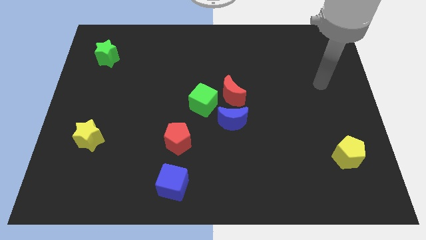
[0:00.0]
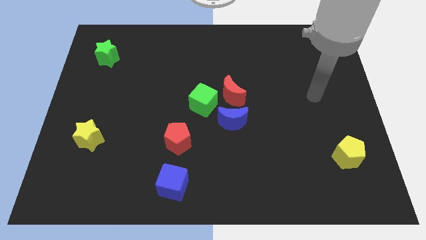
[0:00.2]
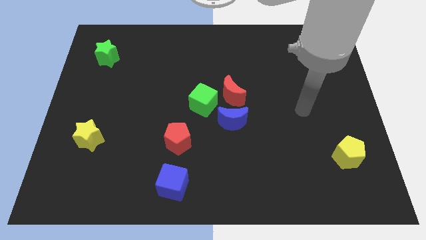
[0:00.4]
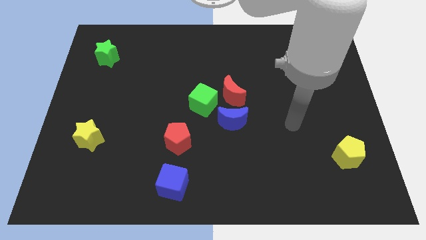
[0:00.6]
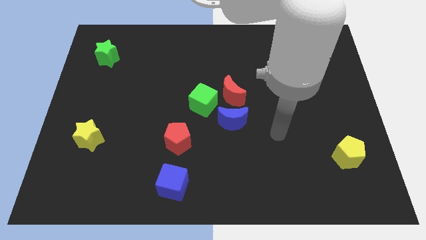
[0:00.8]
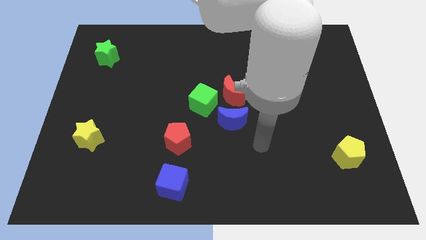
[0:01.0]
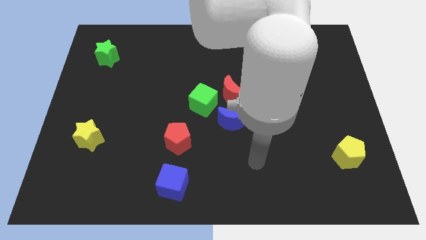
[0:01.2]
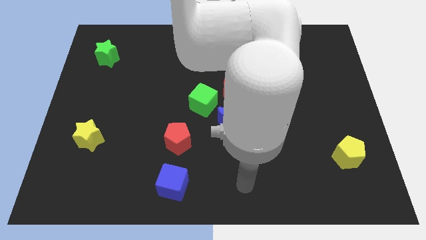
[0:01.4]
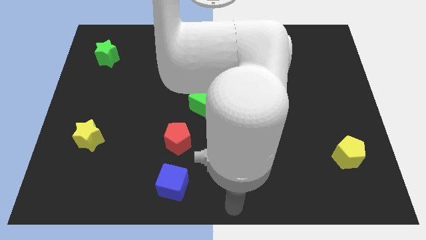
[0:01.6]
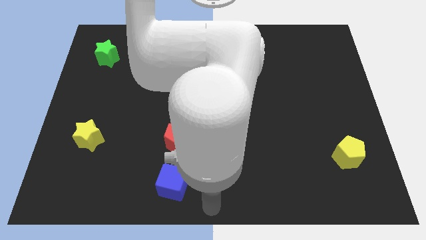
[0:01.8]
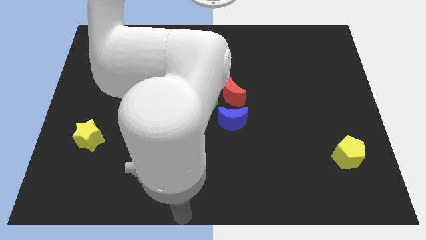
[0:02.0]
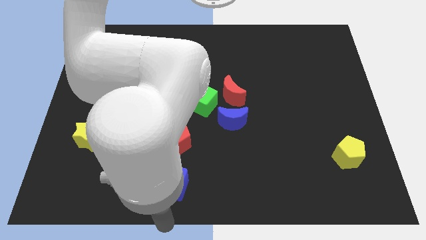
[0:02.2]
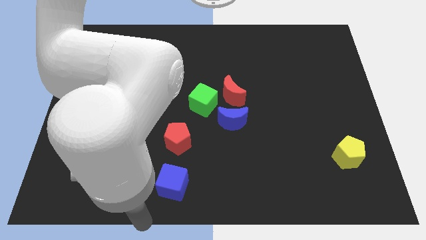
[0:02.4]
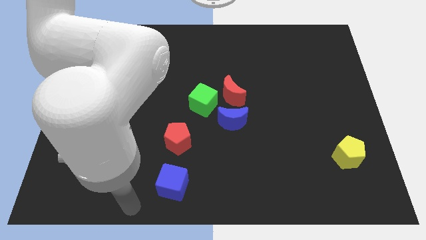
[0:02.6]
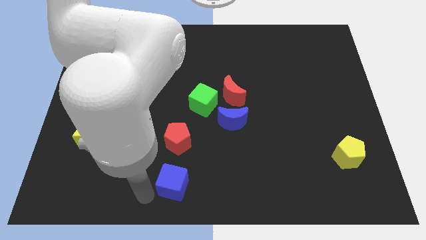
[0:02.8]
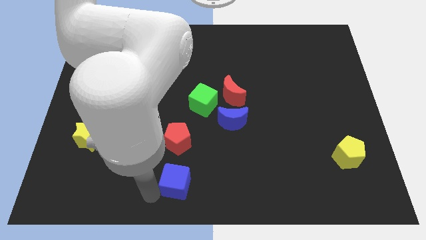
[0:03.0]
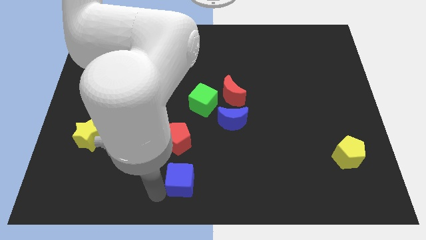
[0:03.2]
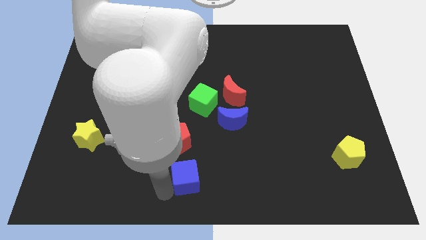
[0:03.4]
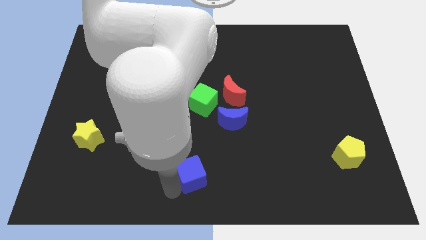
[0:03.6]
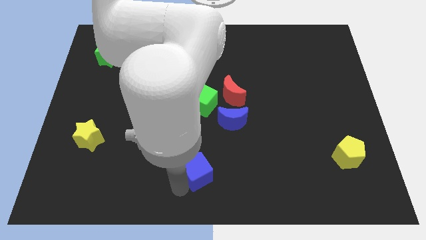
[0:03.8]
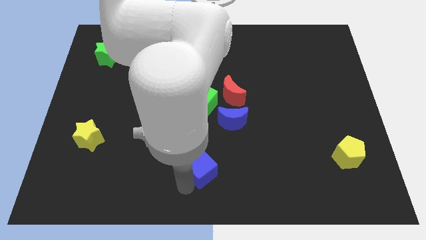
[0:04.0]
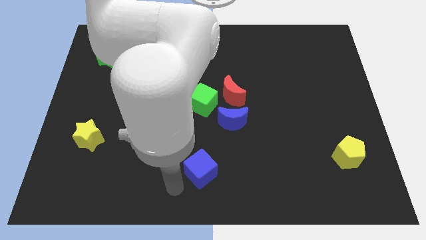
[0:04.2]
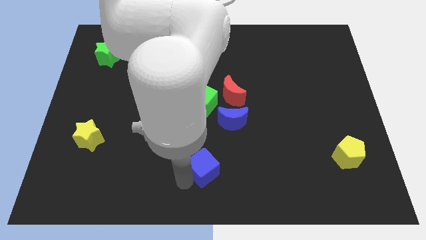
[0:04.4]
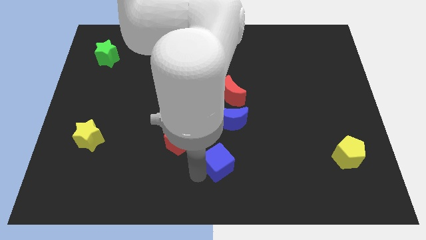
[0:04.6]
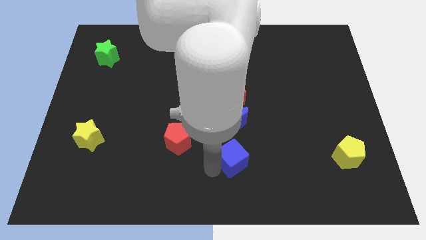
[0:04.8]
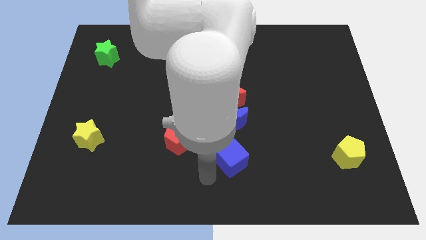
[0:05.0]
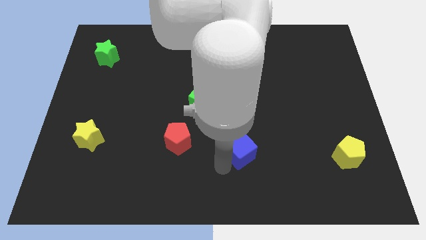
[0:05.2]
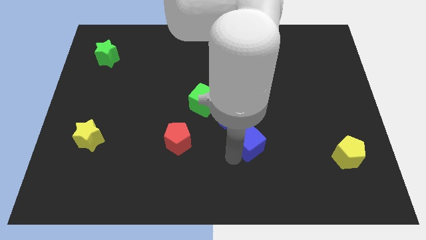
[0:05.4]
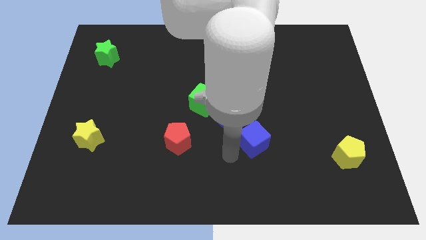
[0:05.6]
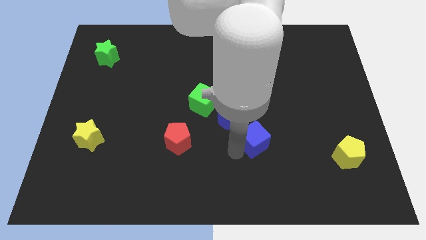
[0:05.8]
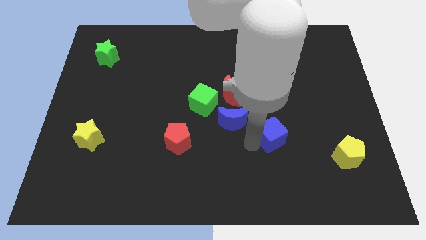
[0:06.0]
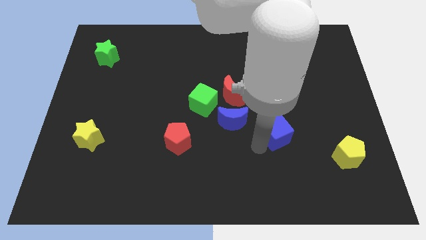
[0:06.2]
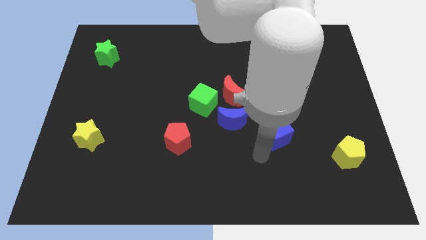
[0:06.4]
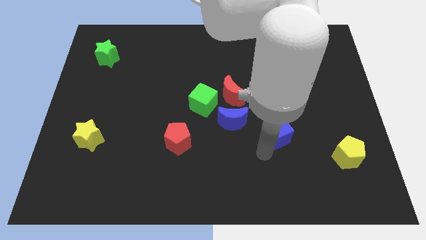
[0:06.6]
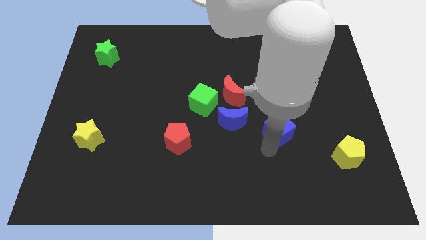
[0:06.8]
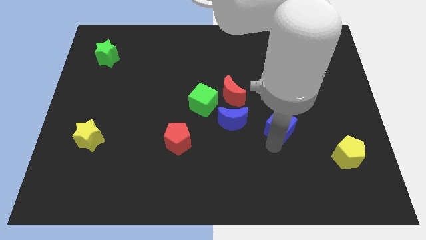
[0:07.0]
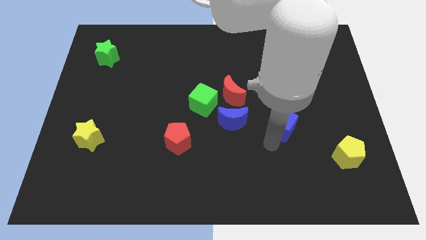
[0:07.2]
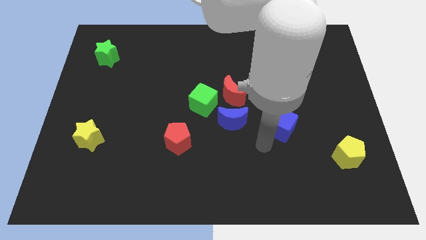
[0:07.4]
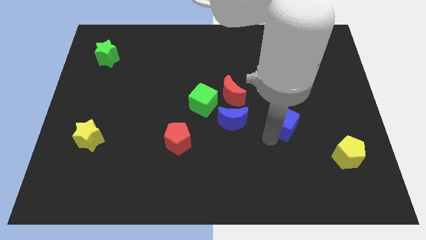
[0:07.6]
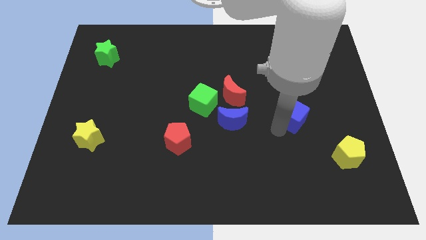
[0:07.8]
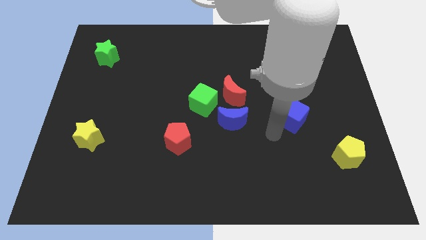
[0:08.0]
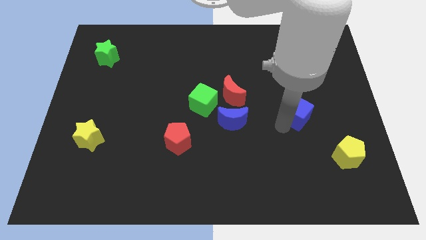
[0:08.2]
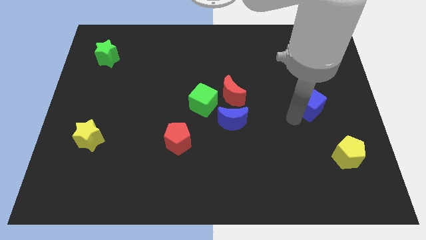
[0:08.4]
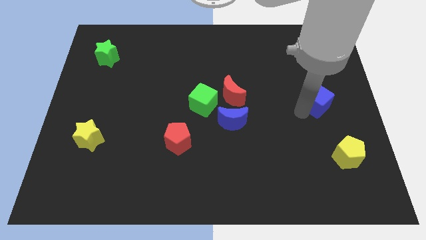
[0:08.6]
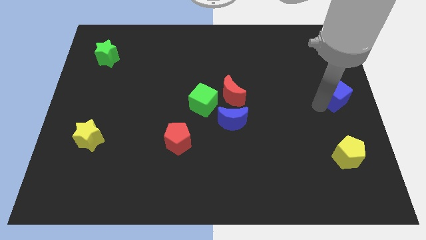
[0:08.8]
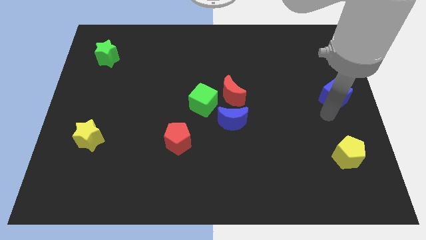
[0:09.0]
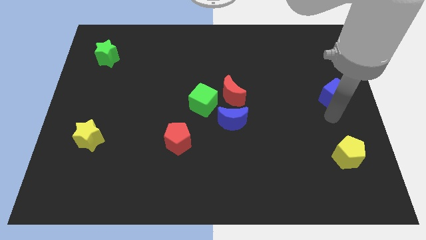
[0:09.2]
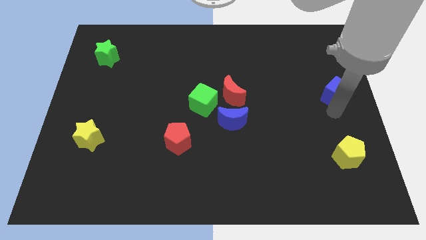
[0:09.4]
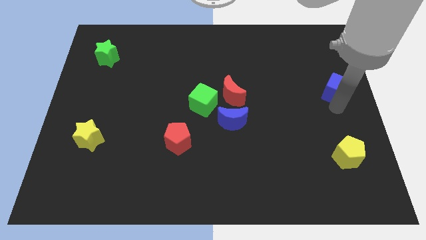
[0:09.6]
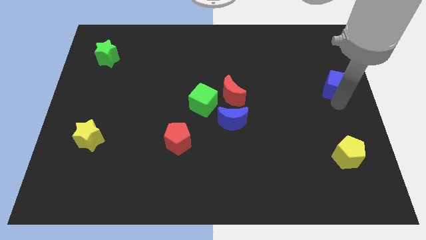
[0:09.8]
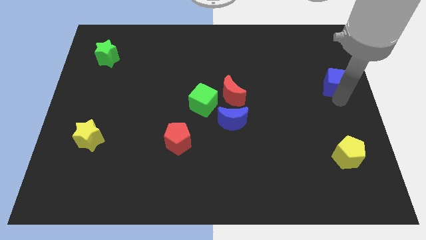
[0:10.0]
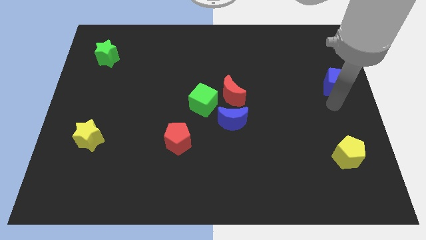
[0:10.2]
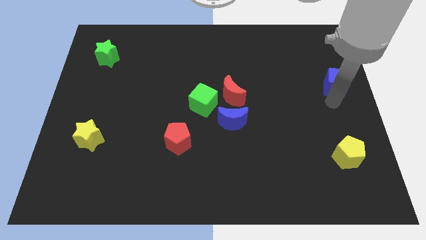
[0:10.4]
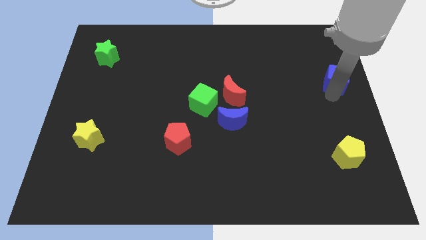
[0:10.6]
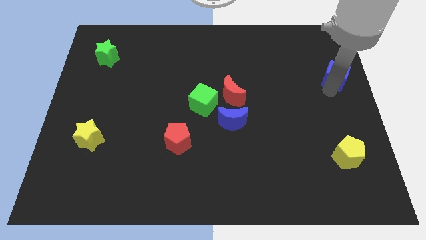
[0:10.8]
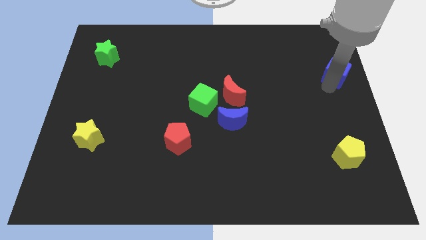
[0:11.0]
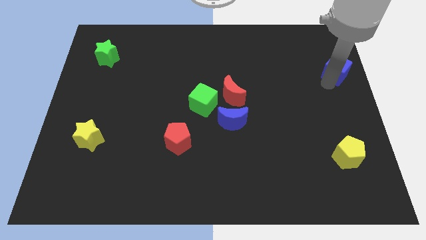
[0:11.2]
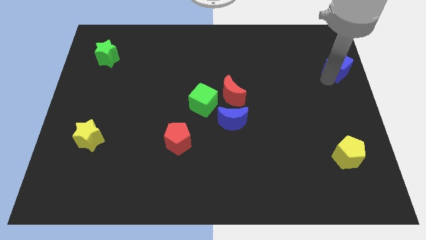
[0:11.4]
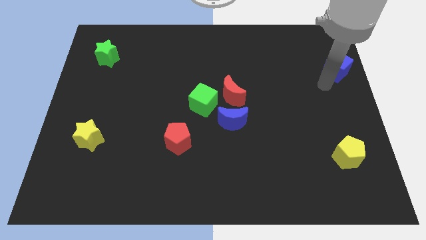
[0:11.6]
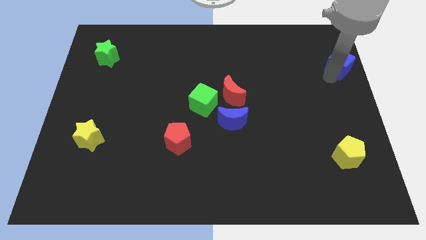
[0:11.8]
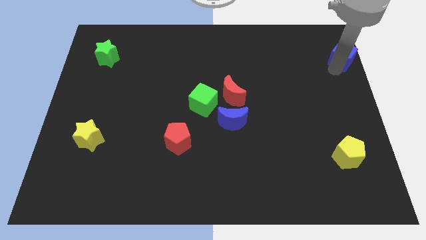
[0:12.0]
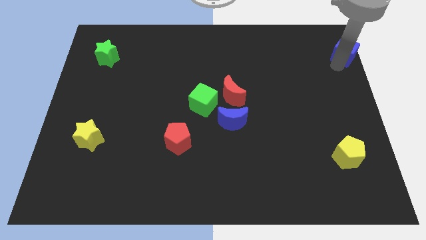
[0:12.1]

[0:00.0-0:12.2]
push the blue cube to the upper right corner

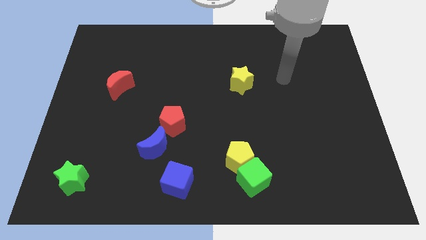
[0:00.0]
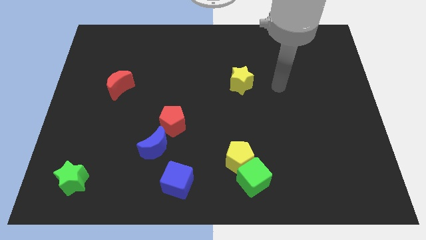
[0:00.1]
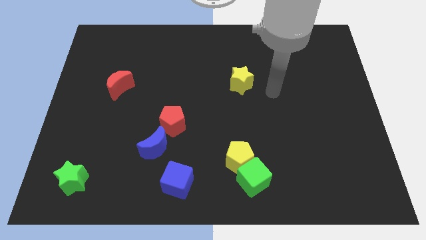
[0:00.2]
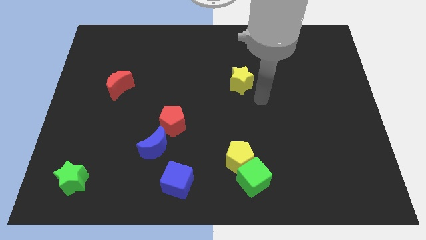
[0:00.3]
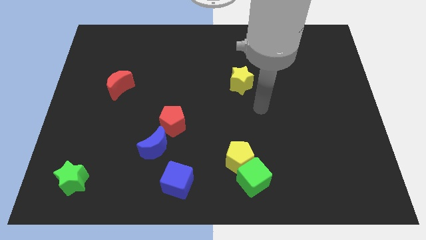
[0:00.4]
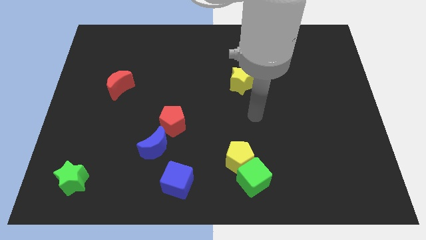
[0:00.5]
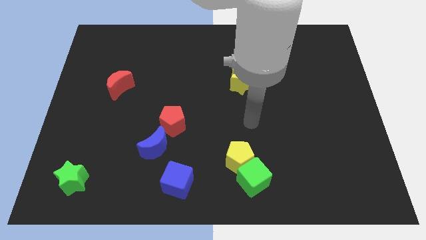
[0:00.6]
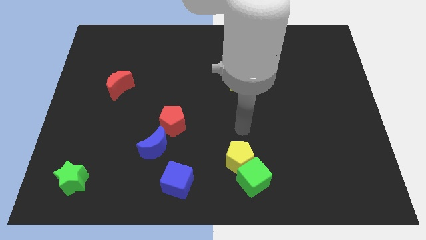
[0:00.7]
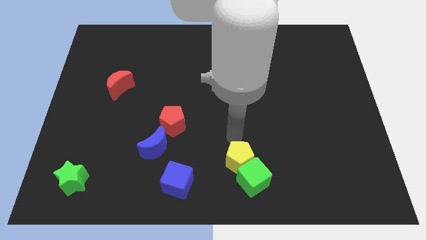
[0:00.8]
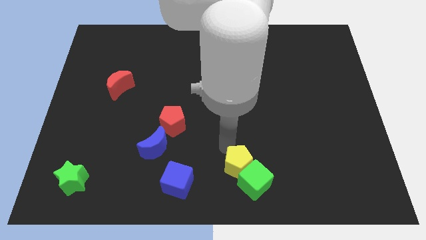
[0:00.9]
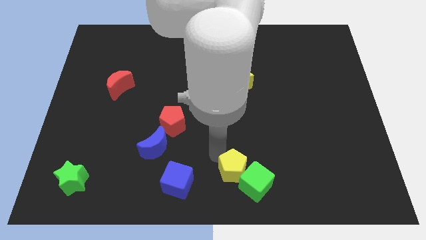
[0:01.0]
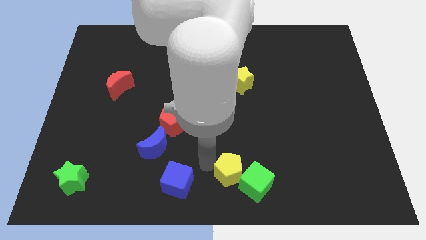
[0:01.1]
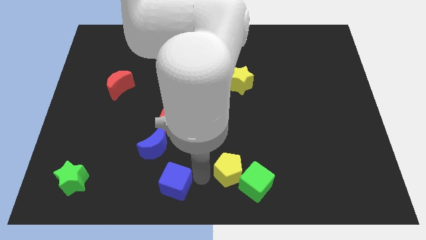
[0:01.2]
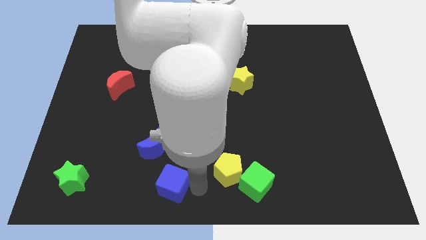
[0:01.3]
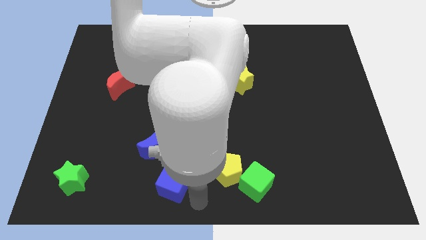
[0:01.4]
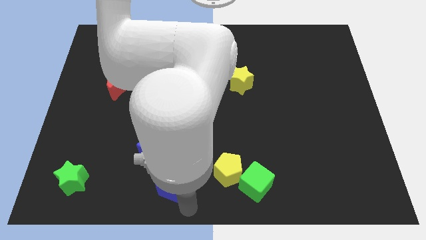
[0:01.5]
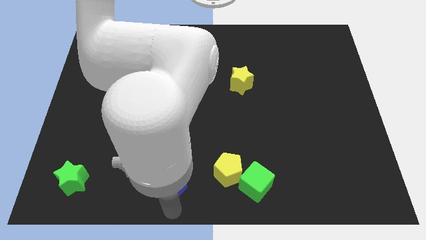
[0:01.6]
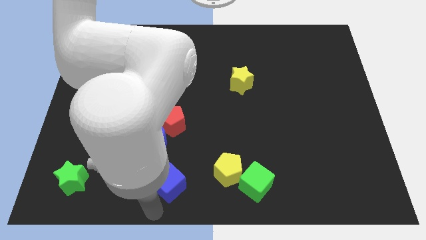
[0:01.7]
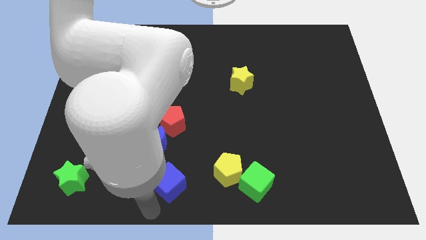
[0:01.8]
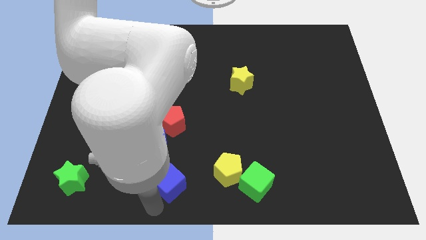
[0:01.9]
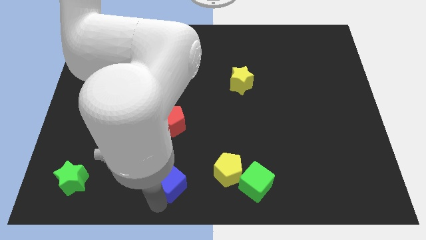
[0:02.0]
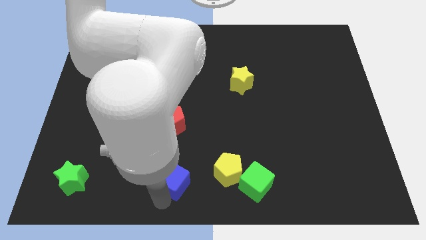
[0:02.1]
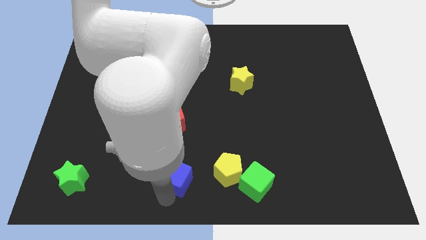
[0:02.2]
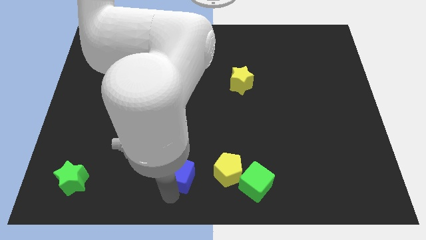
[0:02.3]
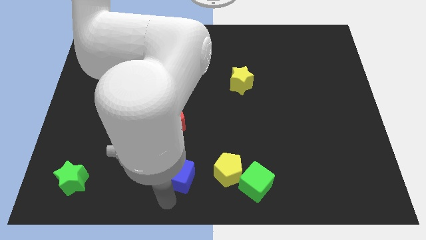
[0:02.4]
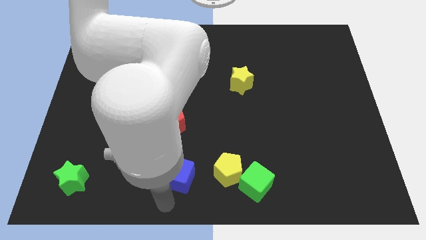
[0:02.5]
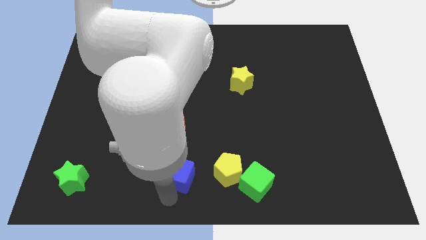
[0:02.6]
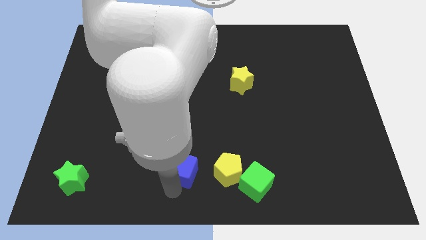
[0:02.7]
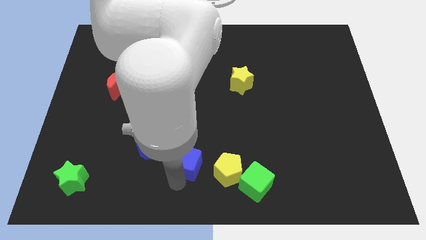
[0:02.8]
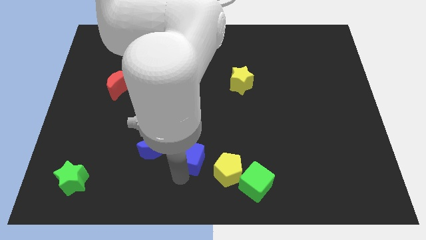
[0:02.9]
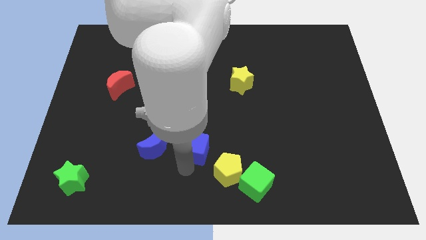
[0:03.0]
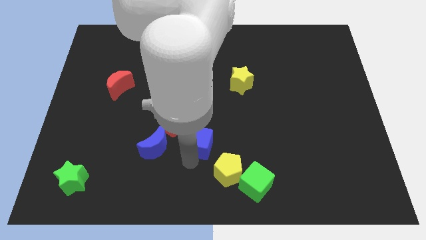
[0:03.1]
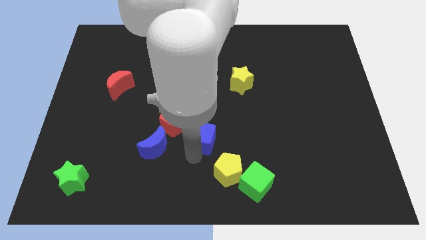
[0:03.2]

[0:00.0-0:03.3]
put the blue cube to the middle
